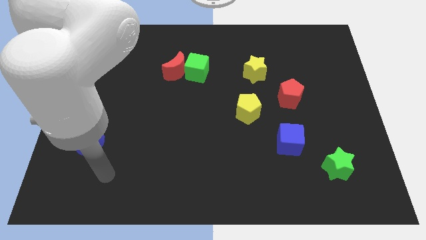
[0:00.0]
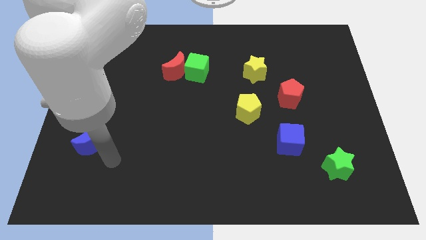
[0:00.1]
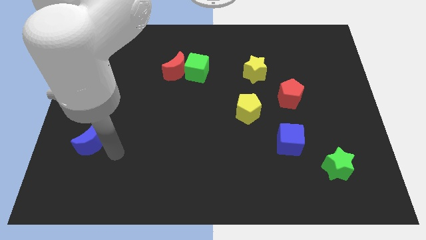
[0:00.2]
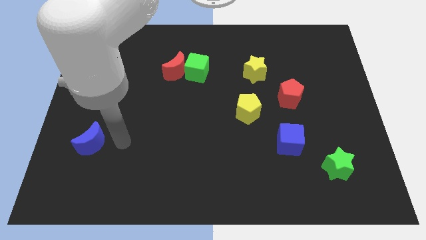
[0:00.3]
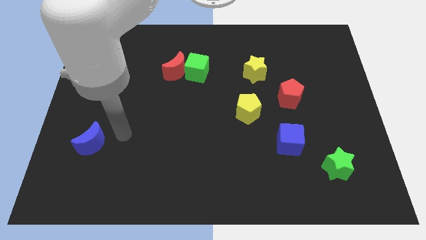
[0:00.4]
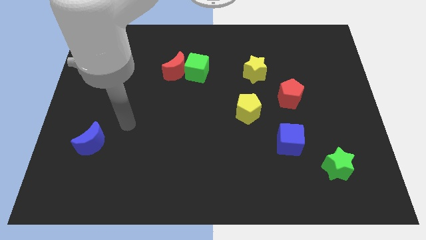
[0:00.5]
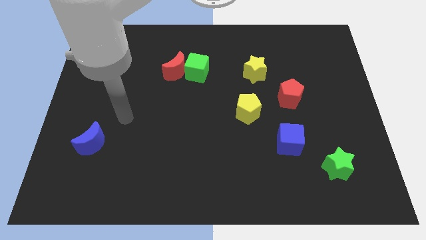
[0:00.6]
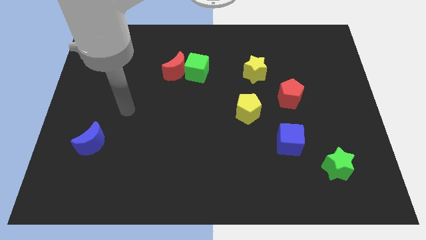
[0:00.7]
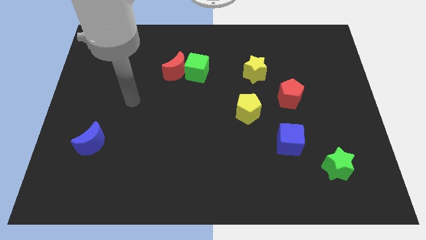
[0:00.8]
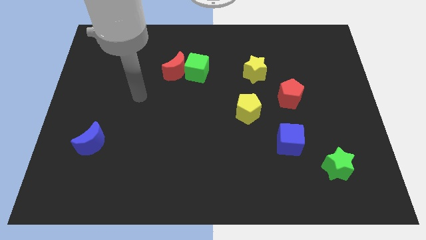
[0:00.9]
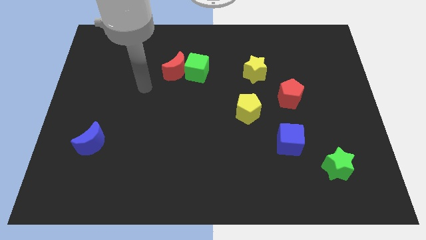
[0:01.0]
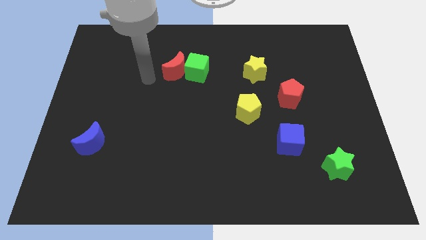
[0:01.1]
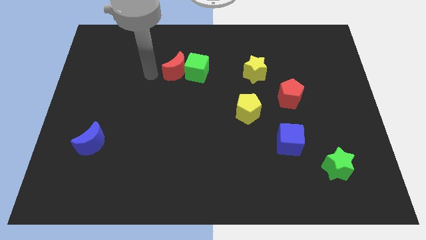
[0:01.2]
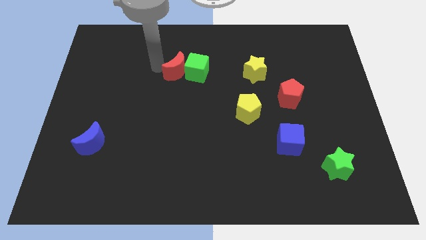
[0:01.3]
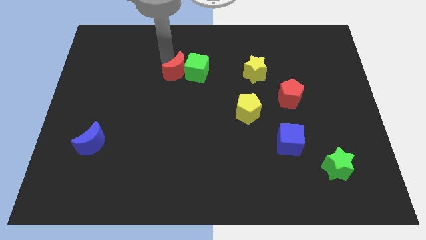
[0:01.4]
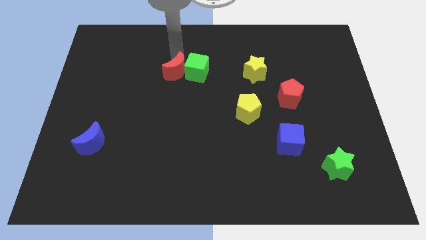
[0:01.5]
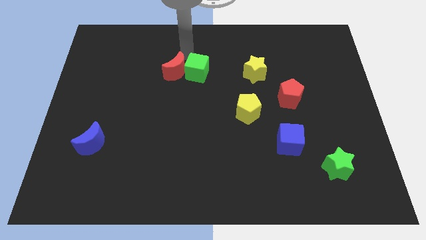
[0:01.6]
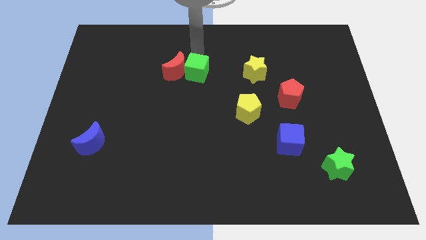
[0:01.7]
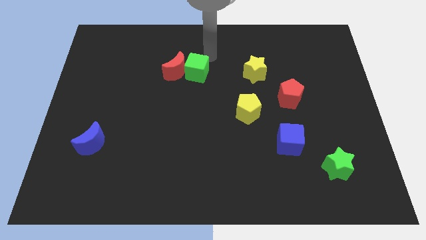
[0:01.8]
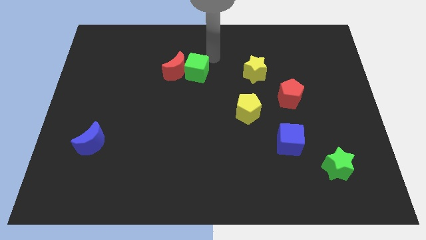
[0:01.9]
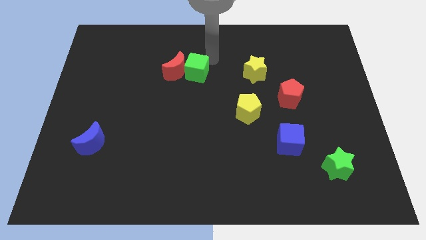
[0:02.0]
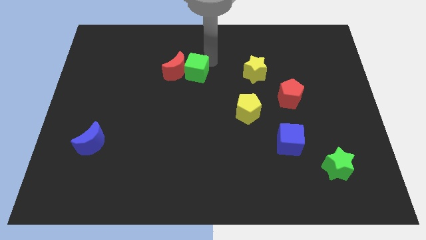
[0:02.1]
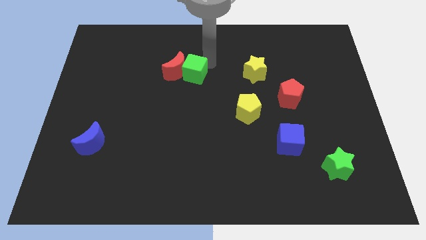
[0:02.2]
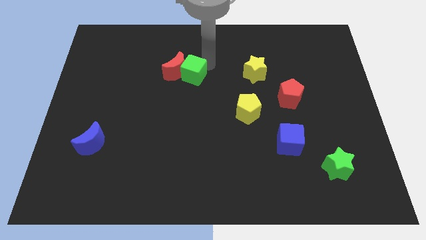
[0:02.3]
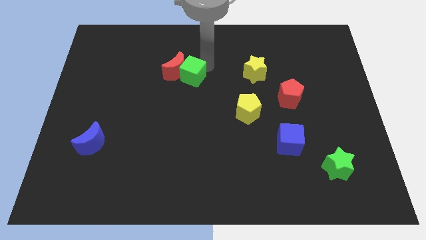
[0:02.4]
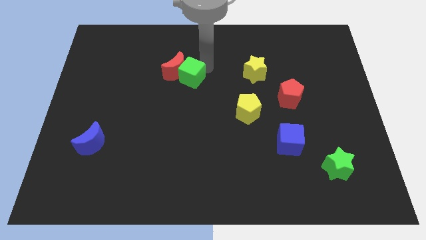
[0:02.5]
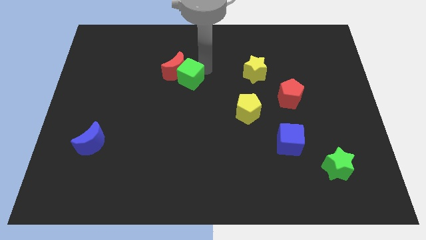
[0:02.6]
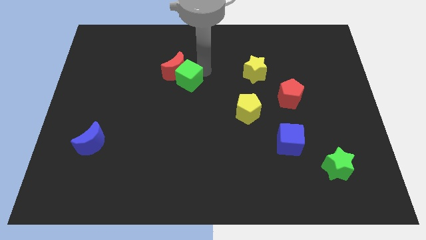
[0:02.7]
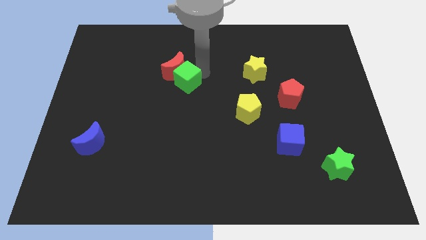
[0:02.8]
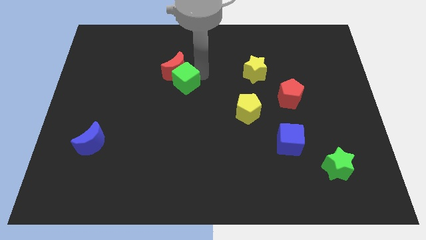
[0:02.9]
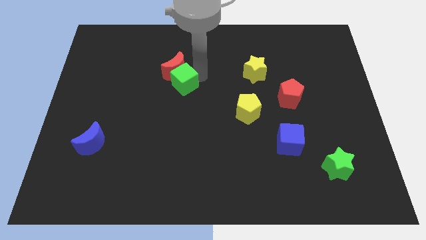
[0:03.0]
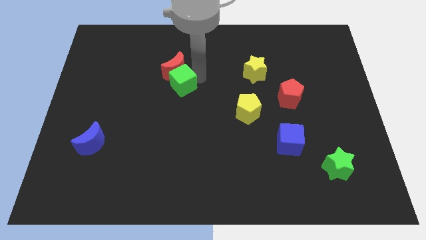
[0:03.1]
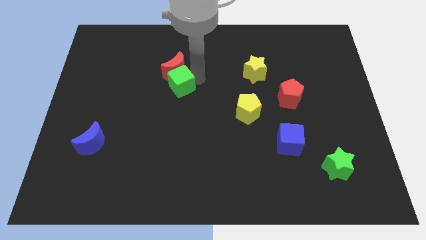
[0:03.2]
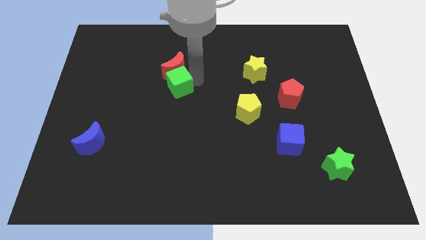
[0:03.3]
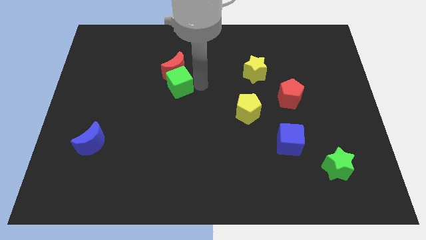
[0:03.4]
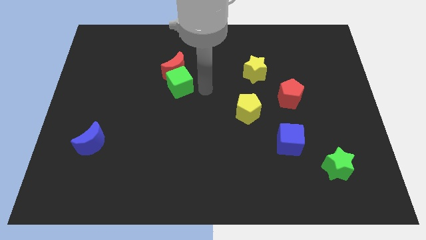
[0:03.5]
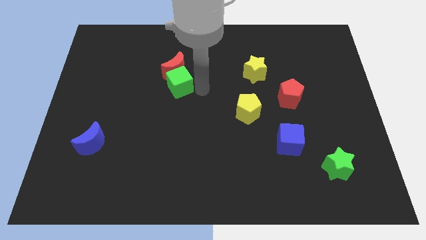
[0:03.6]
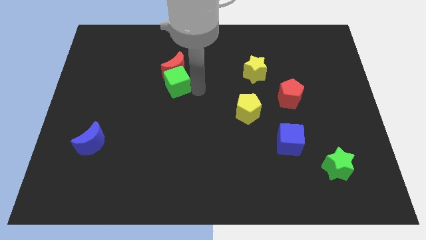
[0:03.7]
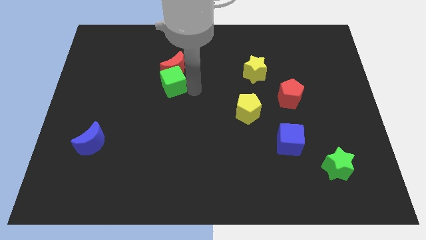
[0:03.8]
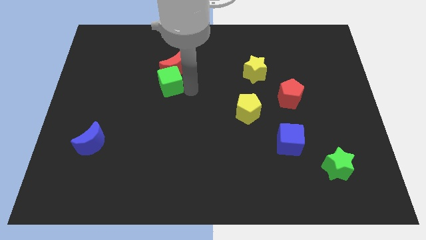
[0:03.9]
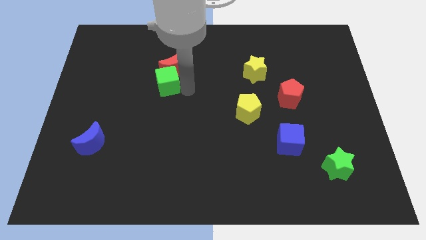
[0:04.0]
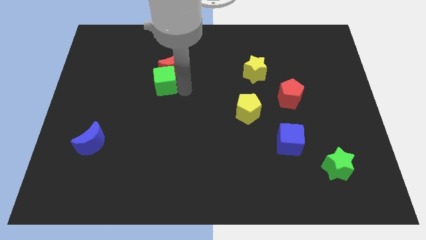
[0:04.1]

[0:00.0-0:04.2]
push the green cube to the left a bit

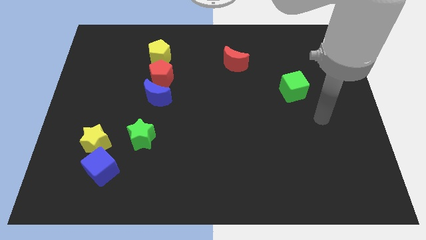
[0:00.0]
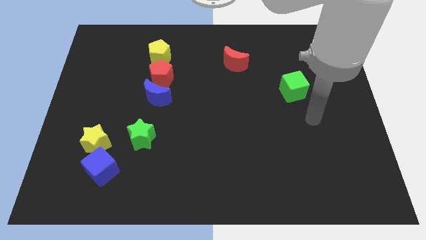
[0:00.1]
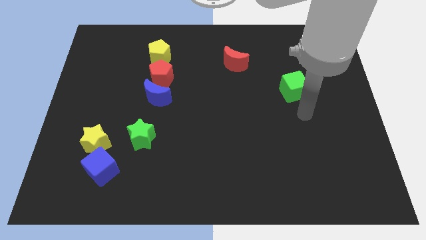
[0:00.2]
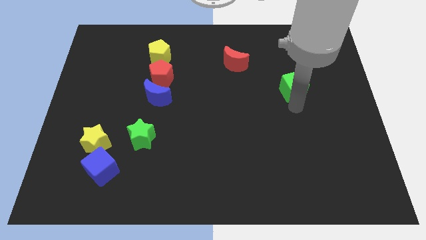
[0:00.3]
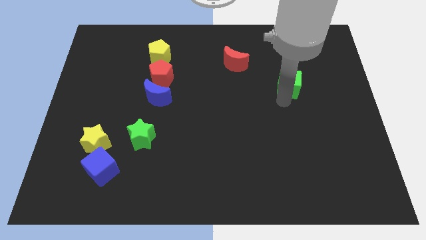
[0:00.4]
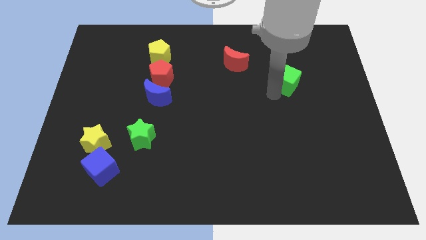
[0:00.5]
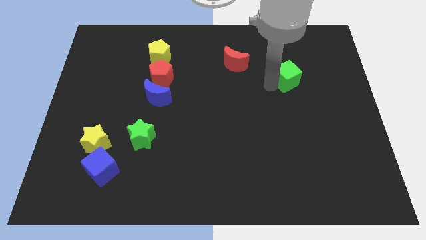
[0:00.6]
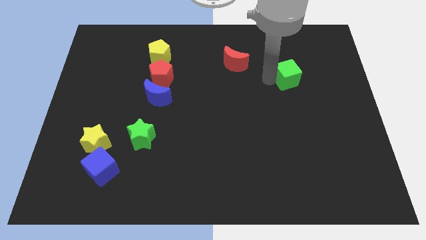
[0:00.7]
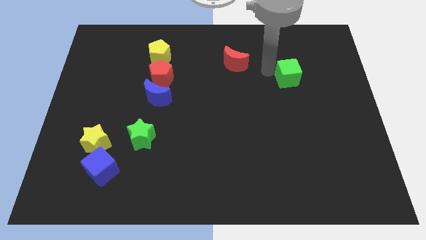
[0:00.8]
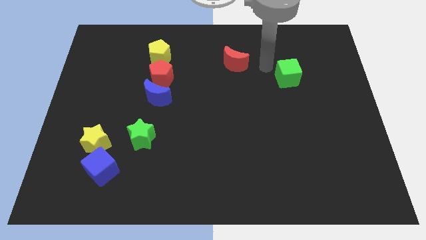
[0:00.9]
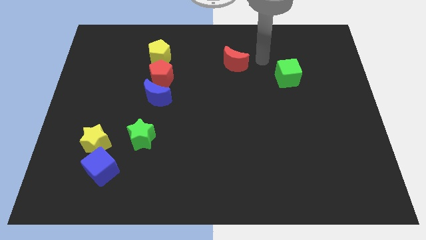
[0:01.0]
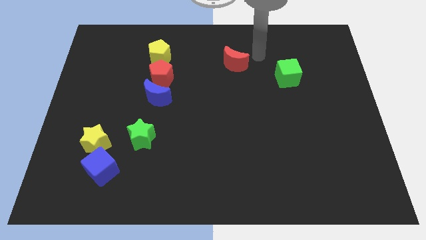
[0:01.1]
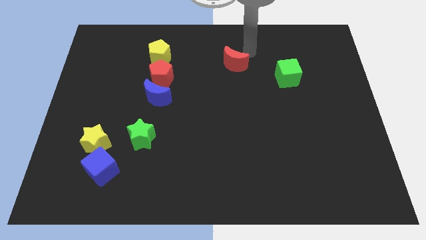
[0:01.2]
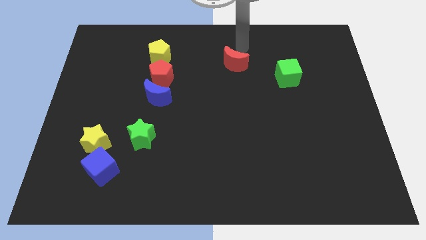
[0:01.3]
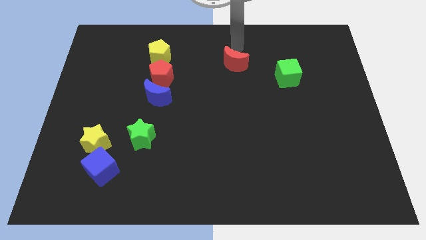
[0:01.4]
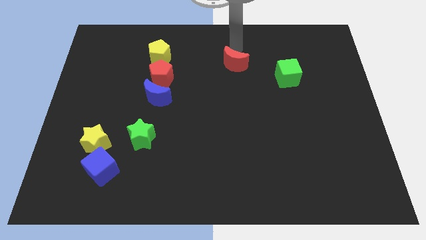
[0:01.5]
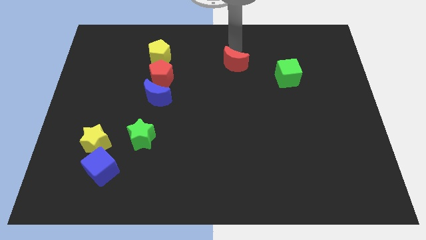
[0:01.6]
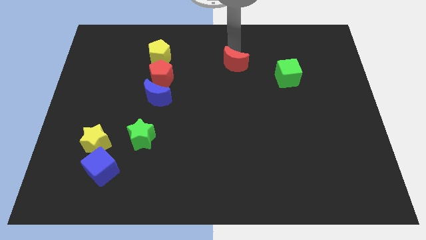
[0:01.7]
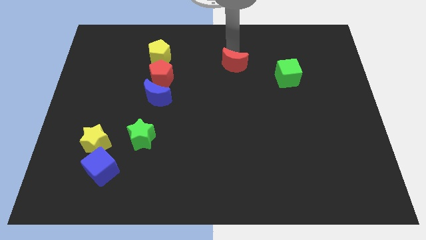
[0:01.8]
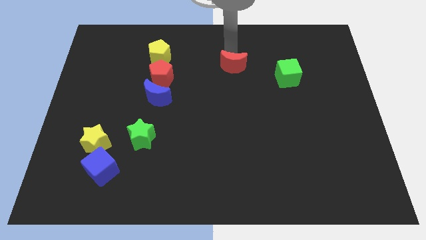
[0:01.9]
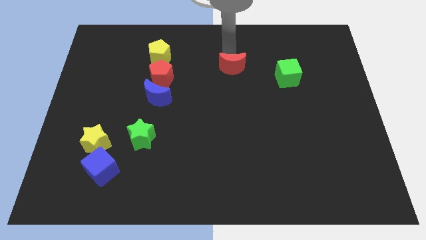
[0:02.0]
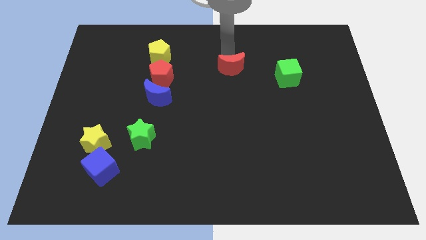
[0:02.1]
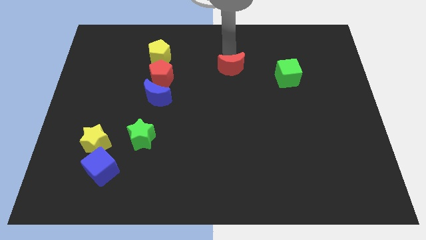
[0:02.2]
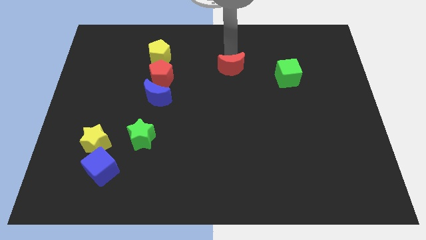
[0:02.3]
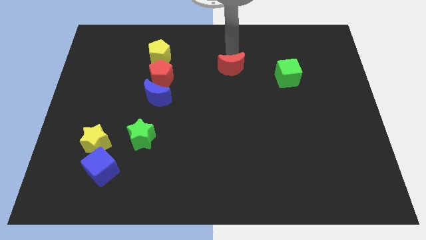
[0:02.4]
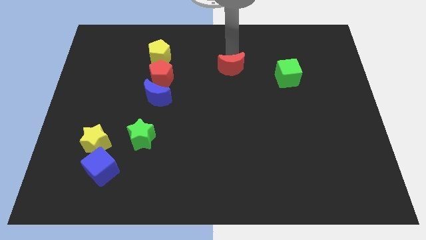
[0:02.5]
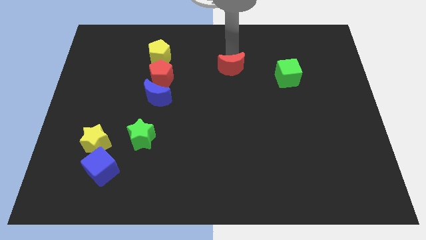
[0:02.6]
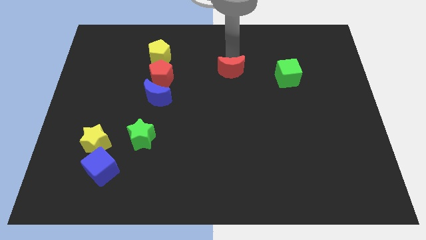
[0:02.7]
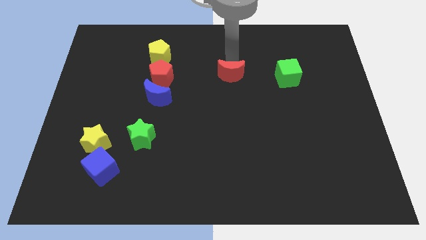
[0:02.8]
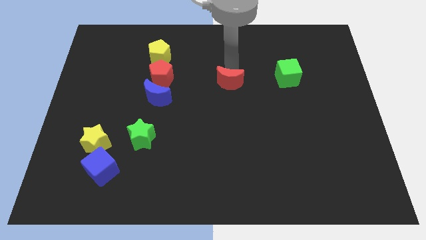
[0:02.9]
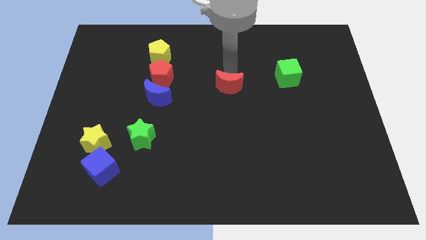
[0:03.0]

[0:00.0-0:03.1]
slightly slide the red moon down

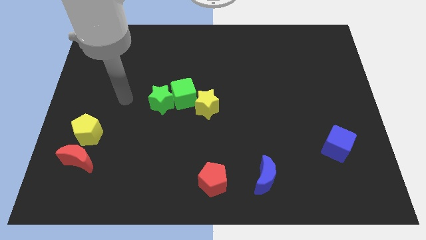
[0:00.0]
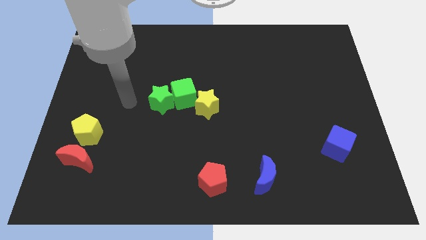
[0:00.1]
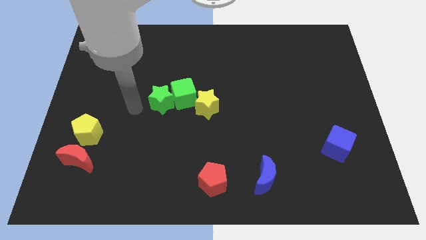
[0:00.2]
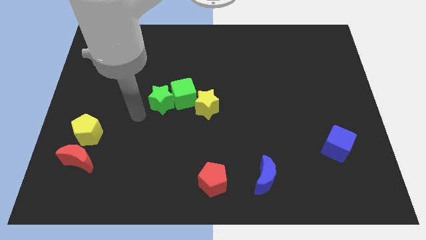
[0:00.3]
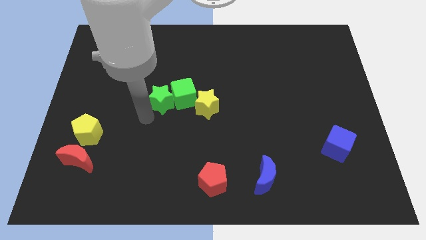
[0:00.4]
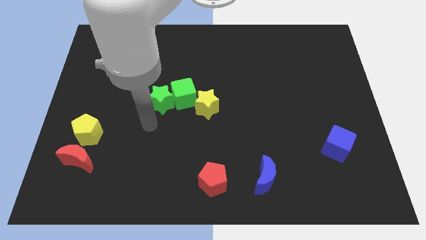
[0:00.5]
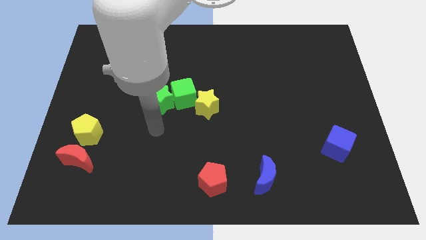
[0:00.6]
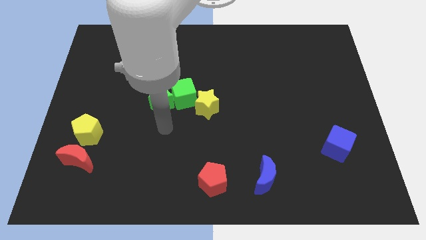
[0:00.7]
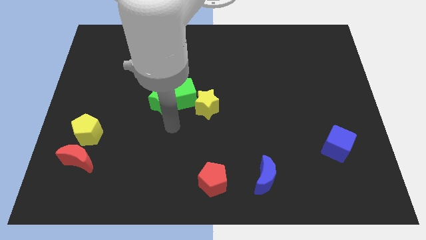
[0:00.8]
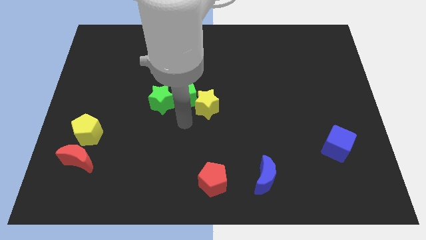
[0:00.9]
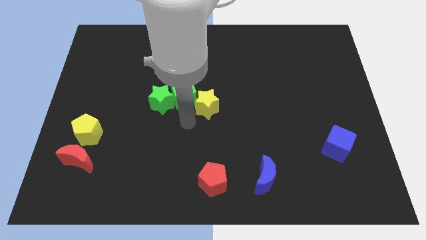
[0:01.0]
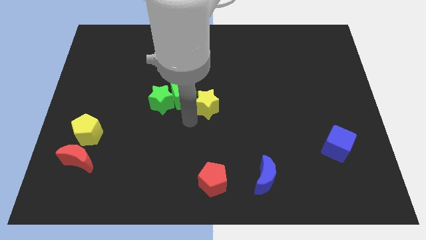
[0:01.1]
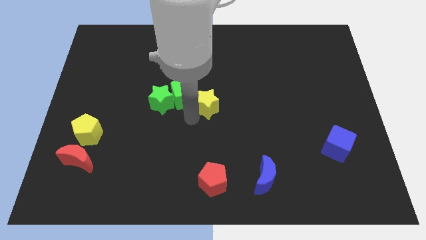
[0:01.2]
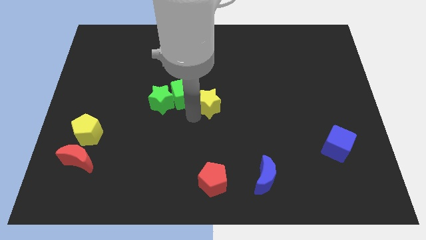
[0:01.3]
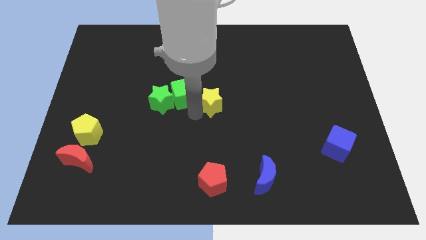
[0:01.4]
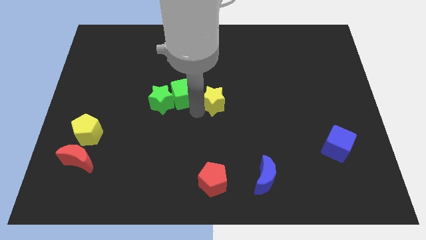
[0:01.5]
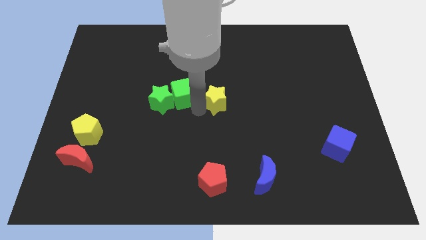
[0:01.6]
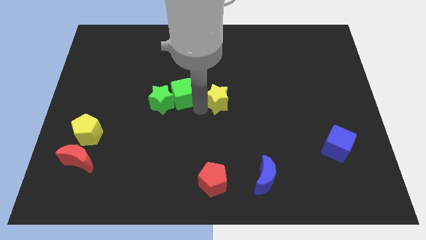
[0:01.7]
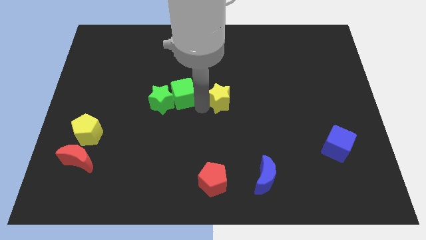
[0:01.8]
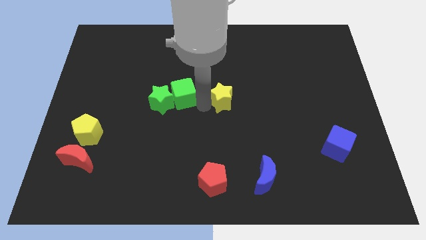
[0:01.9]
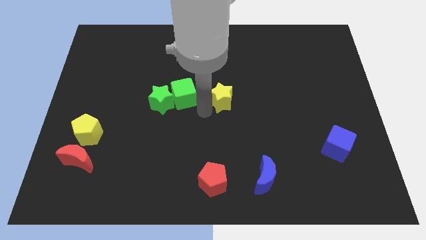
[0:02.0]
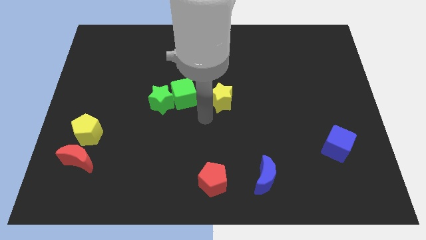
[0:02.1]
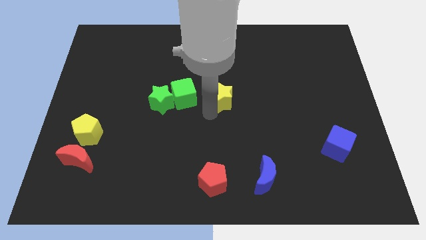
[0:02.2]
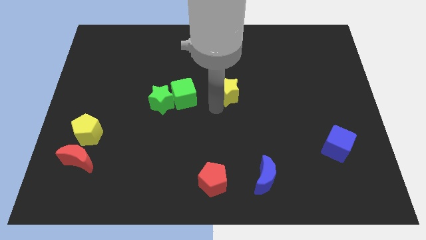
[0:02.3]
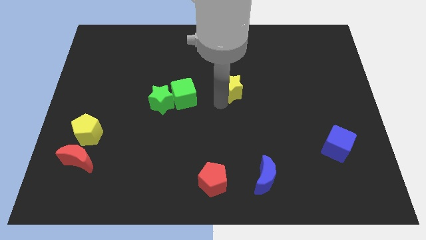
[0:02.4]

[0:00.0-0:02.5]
slightly push the yellow star upwards and then to the right
